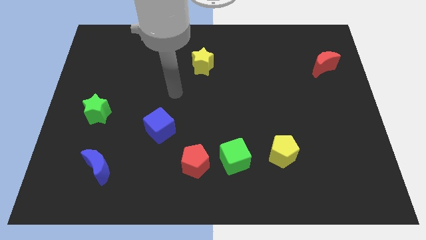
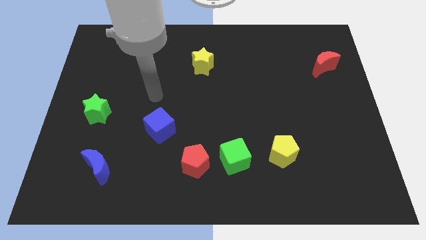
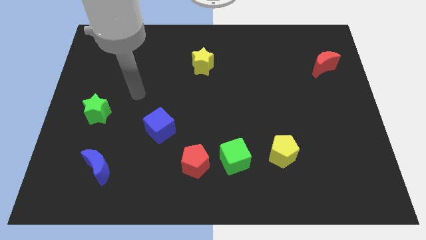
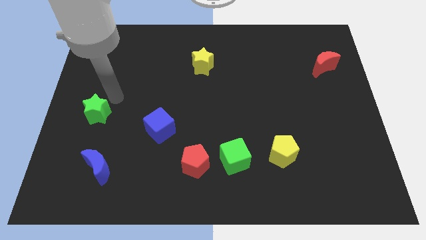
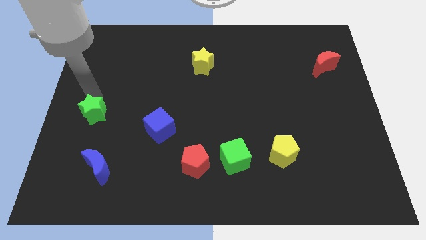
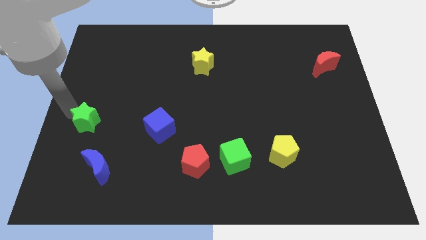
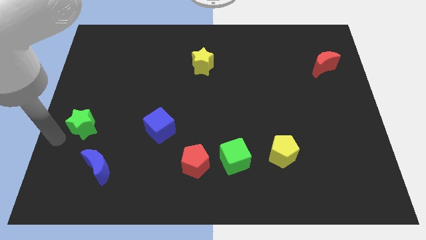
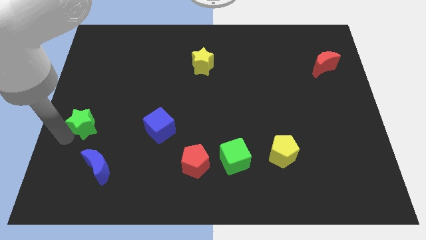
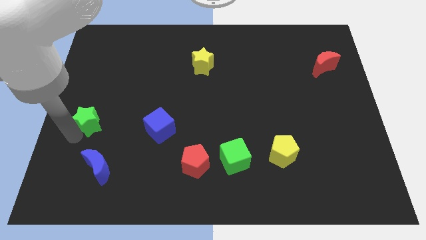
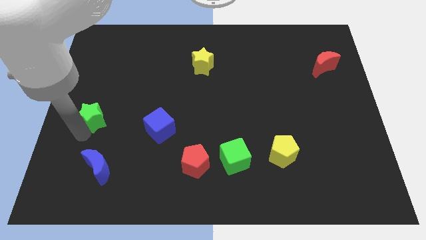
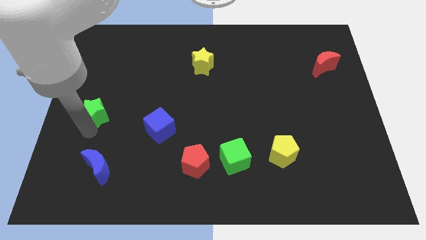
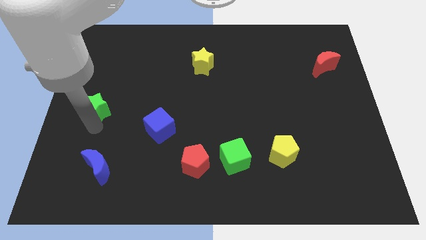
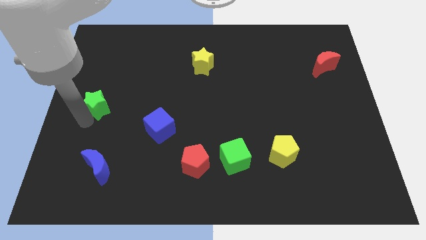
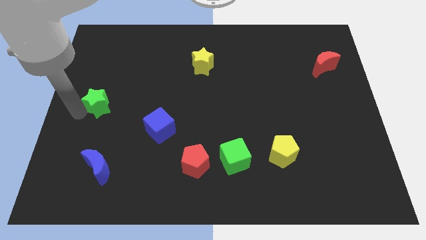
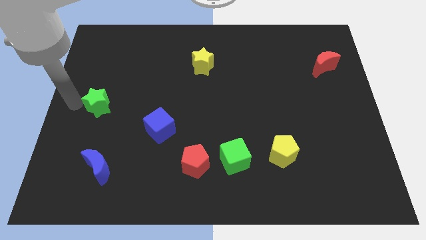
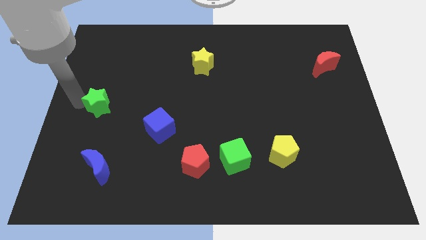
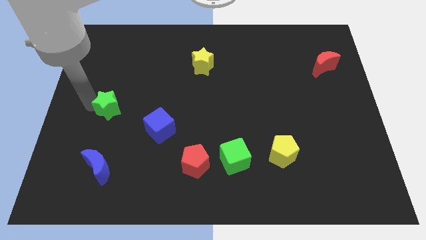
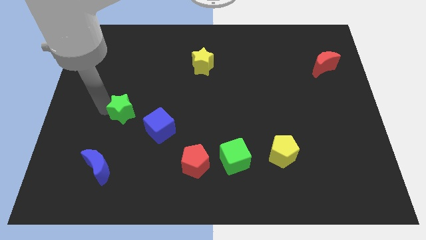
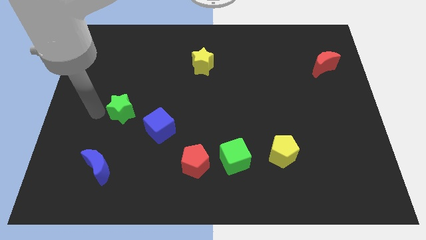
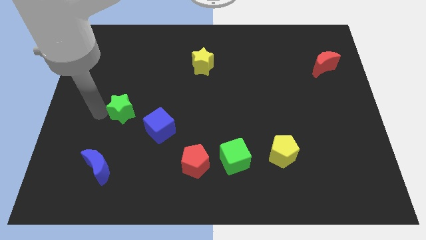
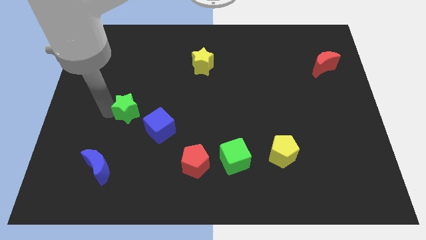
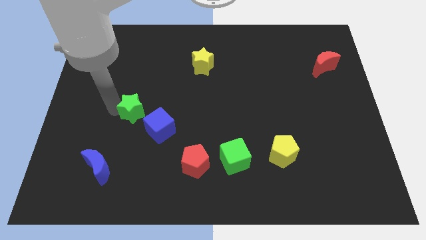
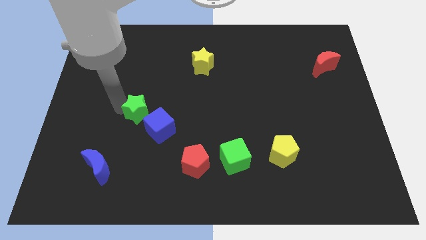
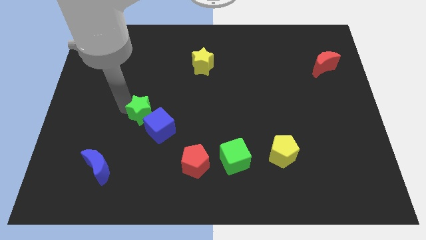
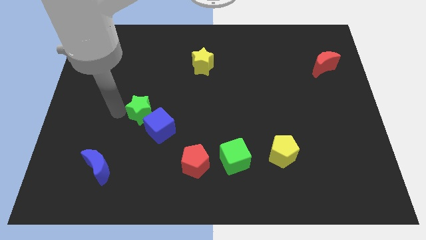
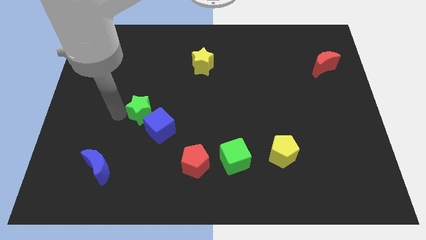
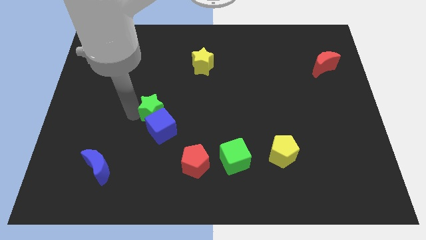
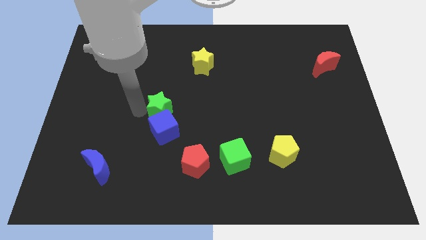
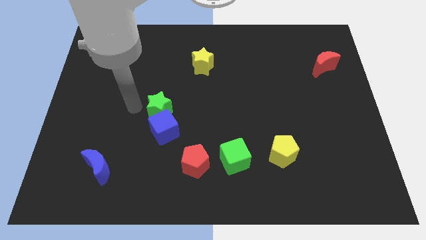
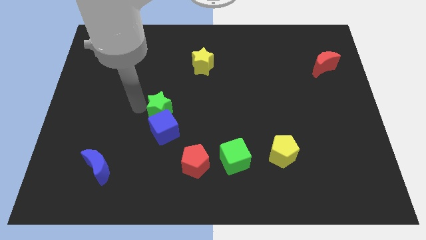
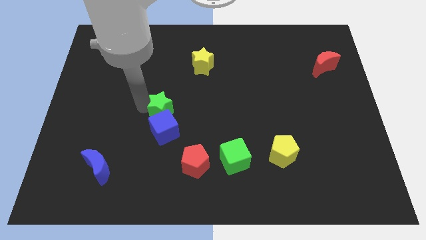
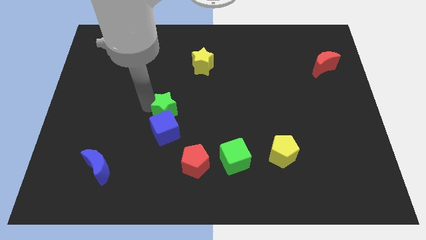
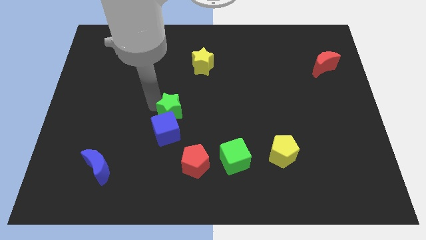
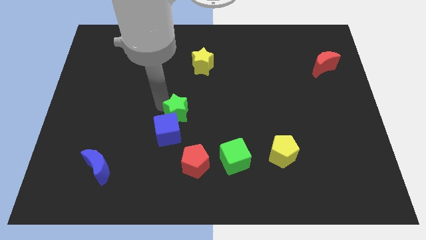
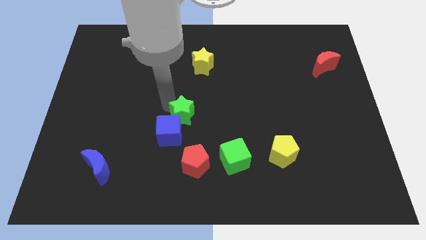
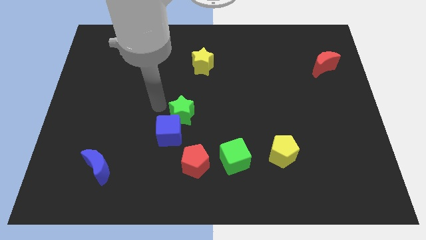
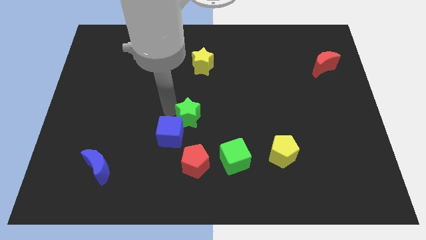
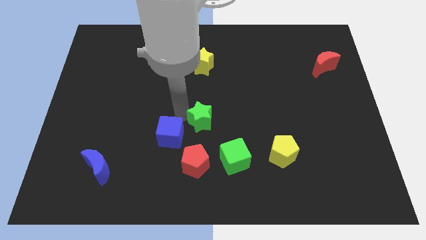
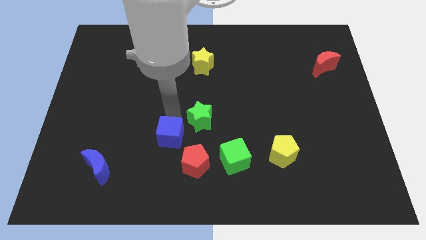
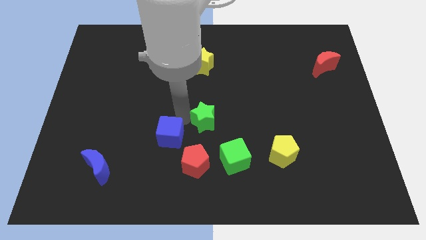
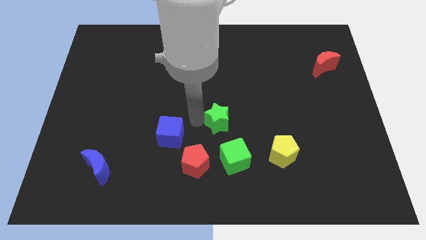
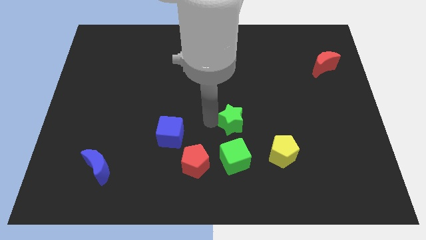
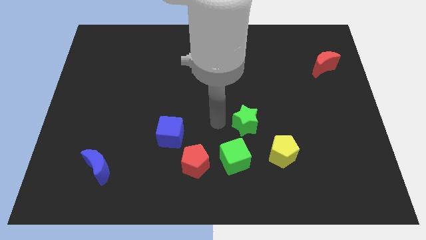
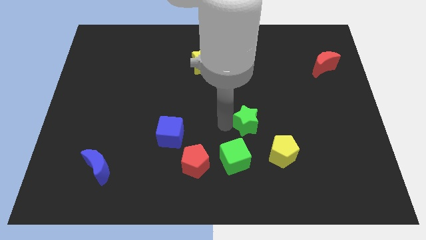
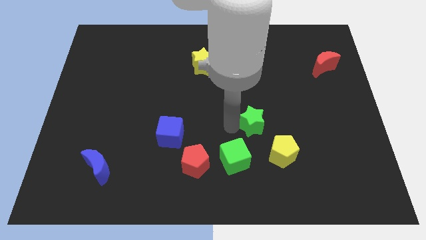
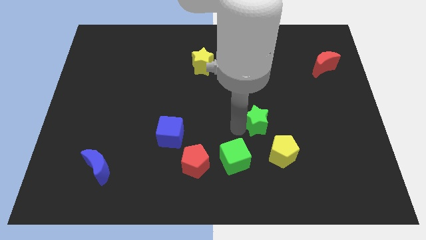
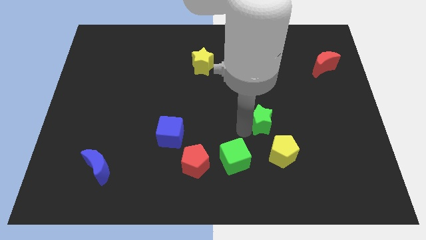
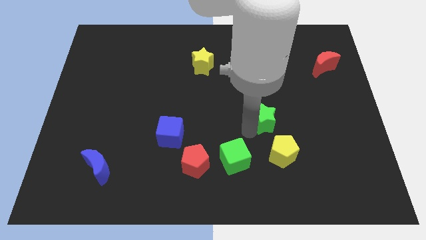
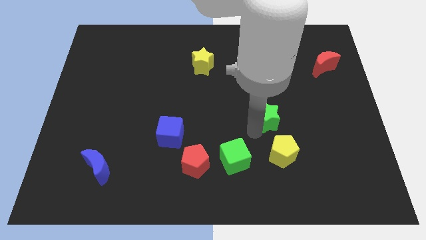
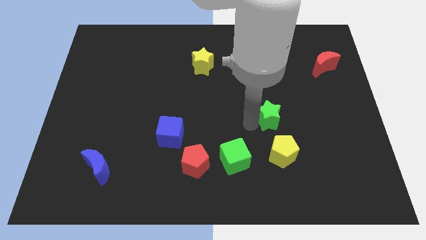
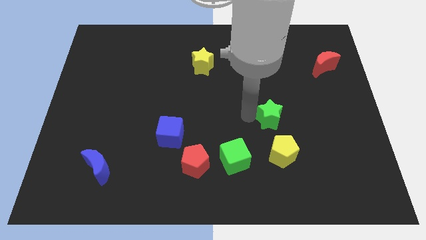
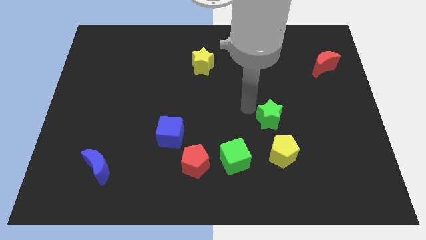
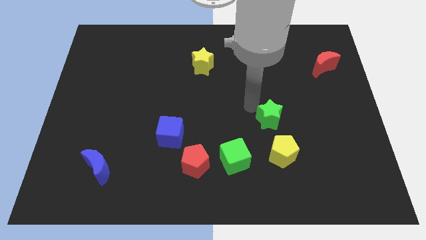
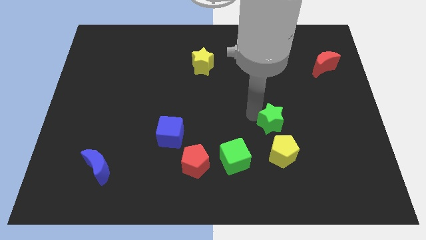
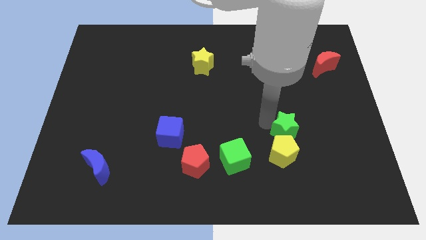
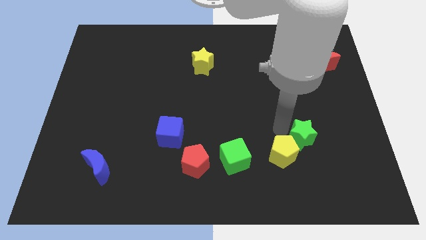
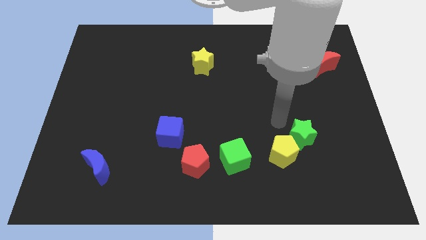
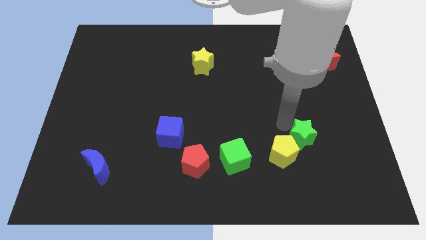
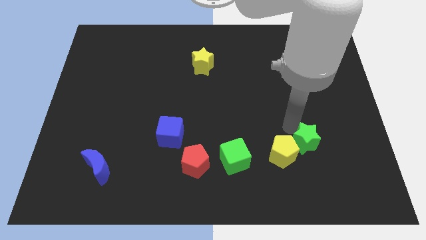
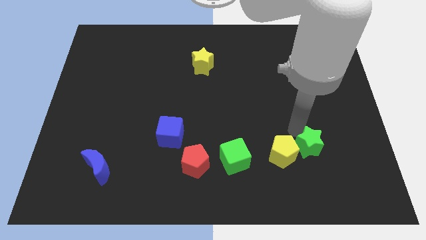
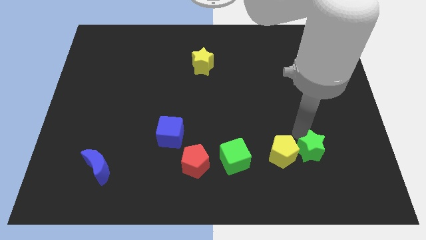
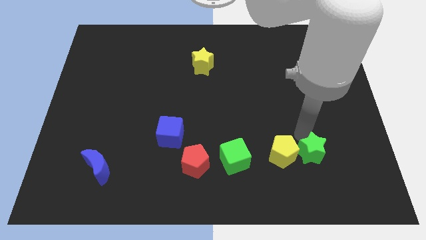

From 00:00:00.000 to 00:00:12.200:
move the green star just right of the green cube

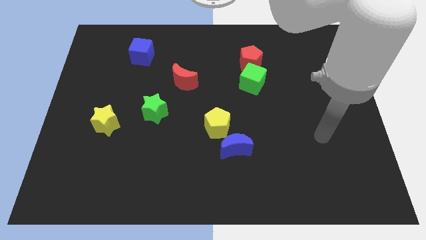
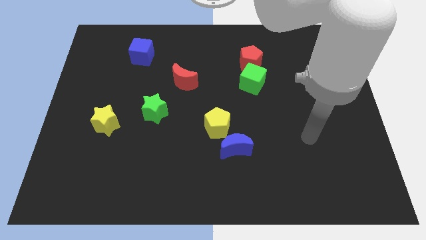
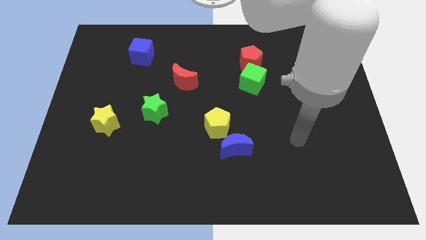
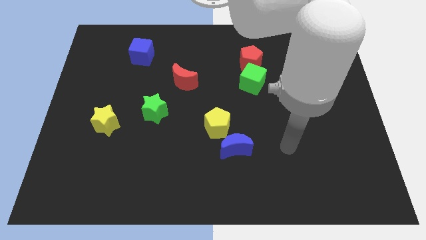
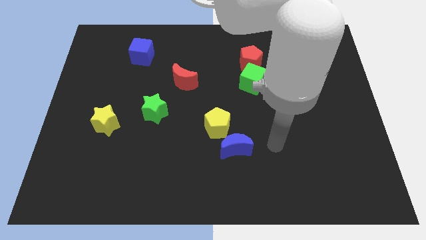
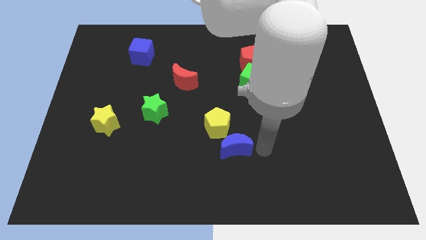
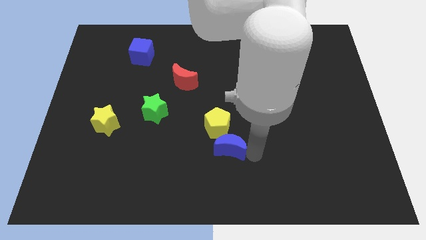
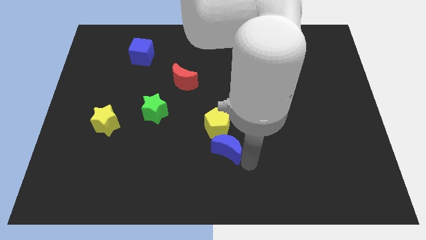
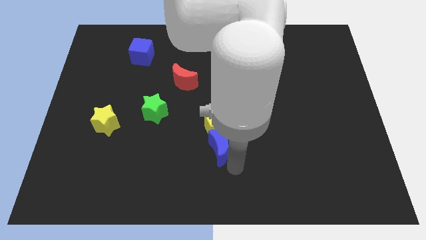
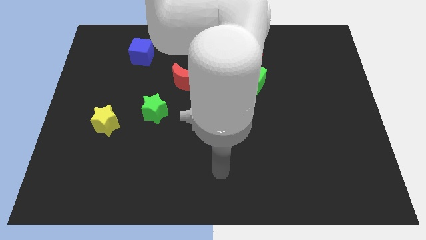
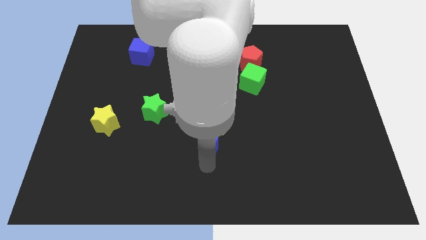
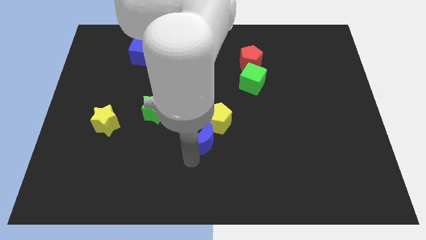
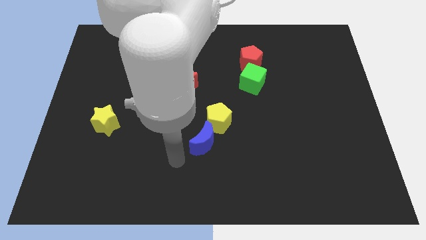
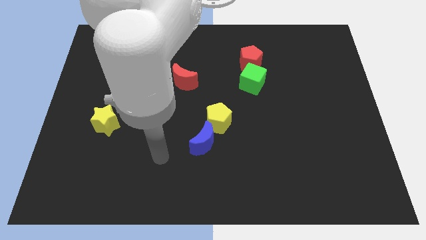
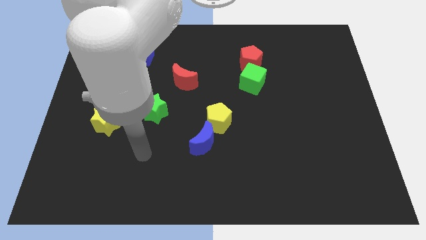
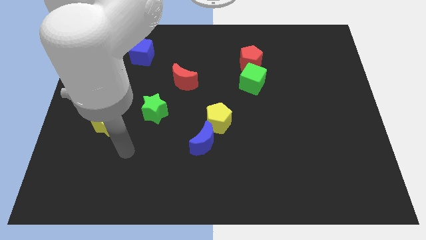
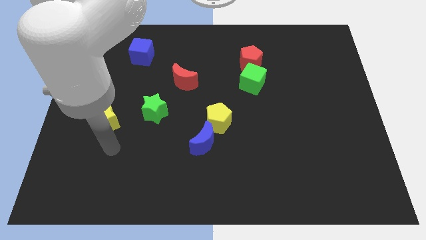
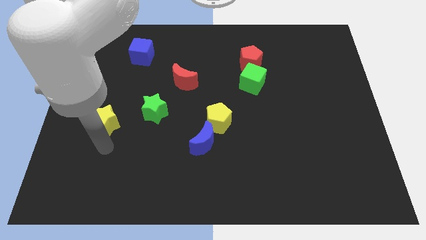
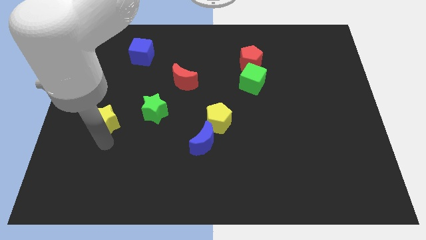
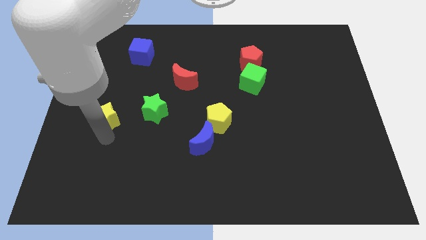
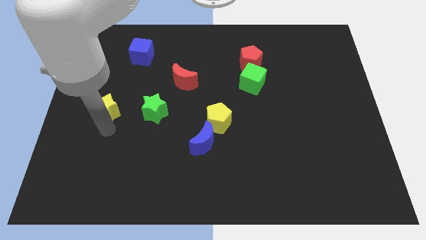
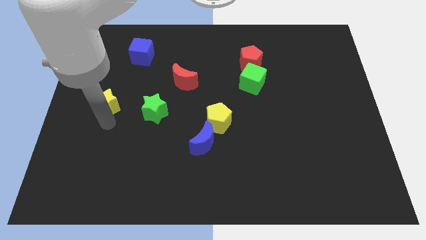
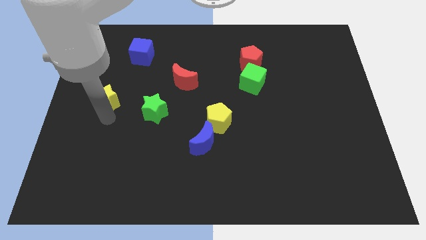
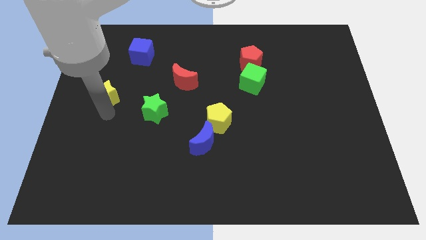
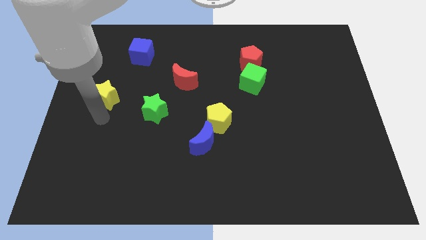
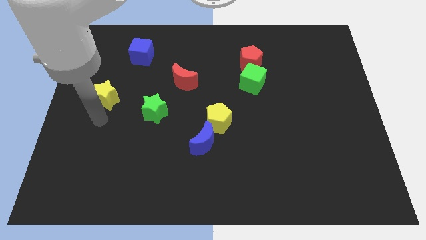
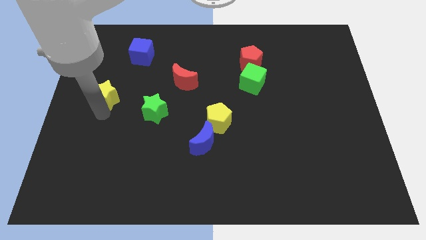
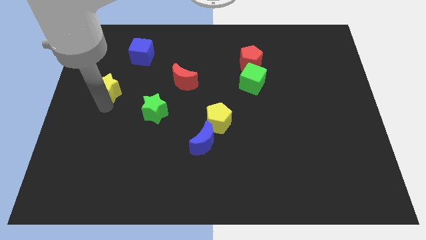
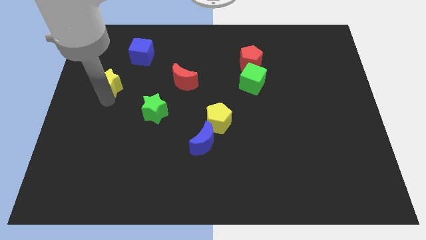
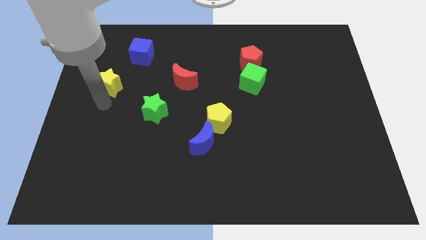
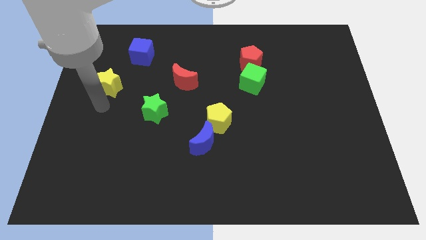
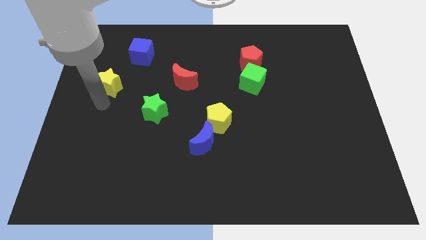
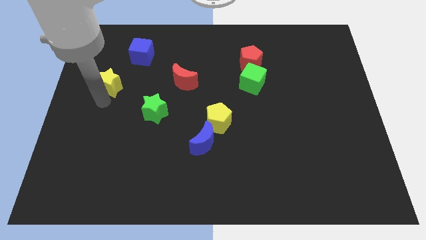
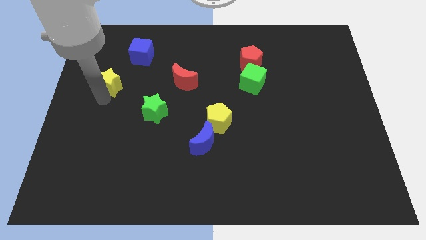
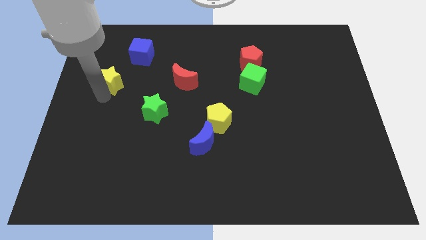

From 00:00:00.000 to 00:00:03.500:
put the yellow star to the bottom left of the blue cube
